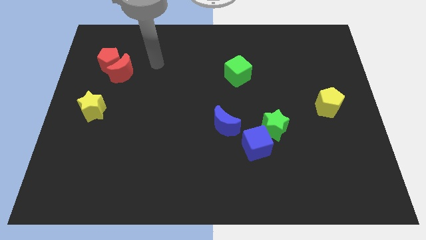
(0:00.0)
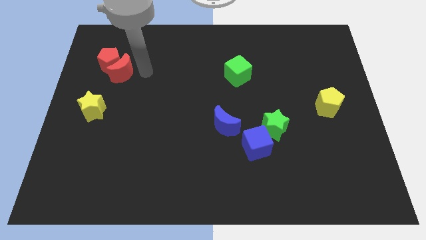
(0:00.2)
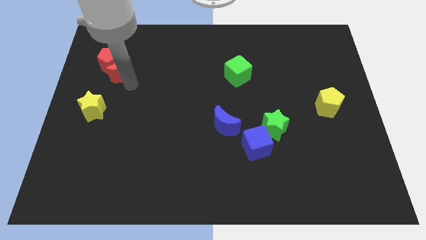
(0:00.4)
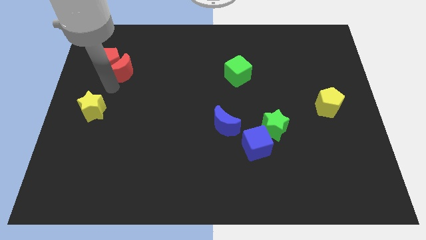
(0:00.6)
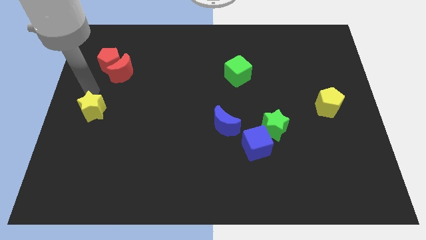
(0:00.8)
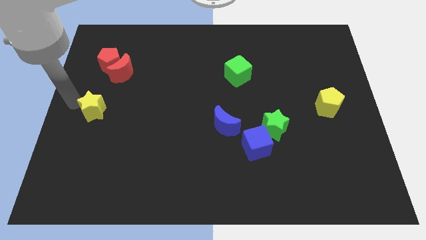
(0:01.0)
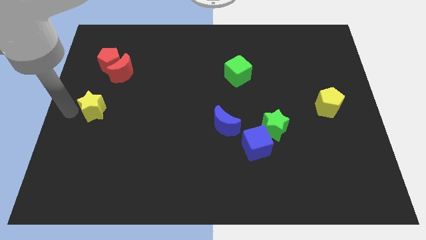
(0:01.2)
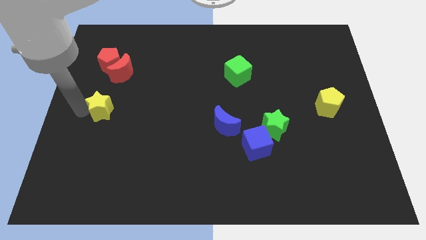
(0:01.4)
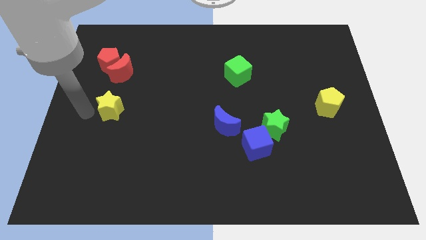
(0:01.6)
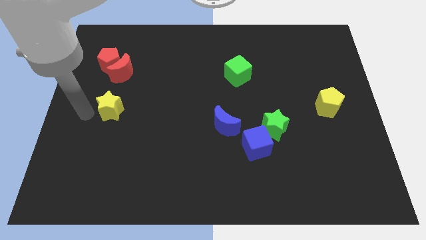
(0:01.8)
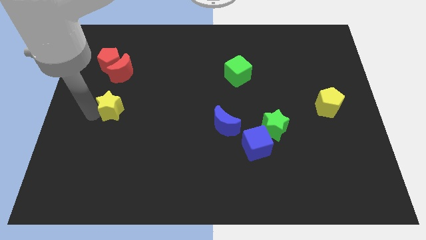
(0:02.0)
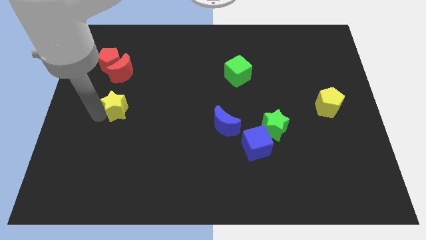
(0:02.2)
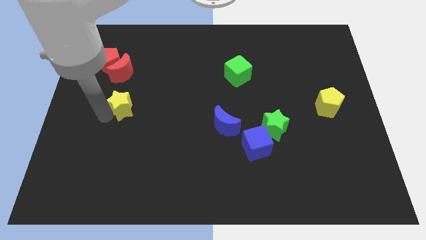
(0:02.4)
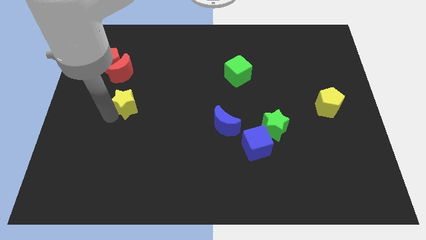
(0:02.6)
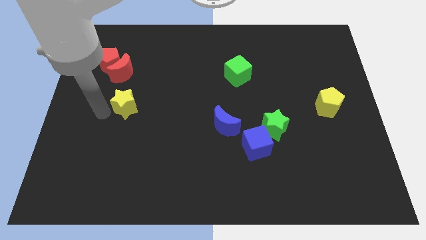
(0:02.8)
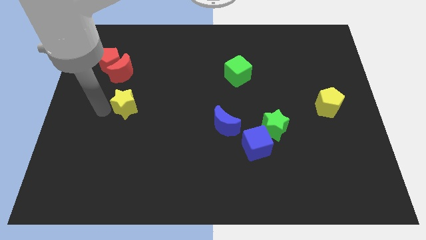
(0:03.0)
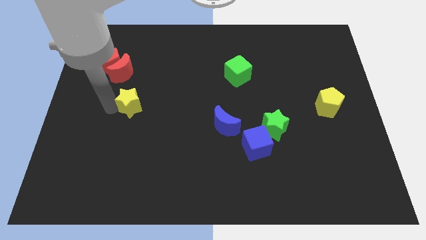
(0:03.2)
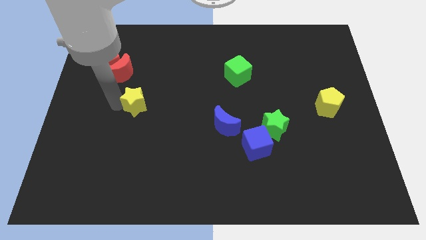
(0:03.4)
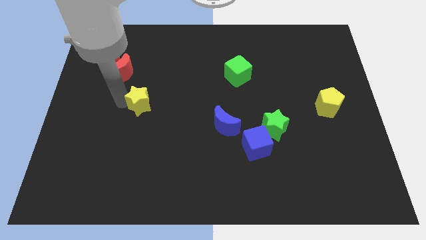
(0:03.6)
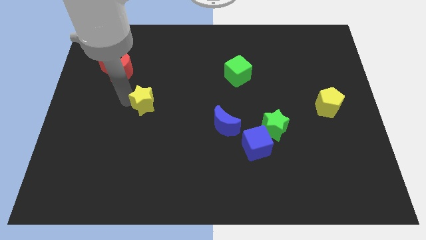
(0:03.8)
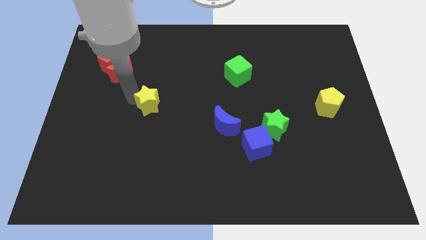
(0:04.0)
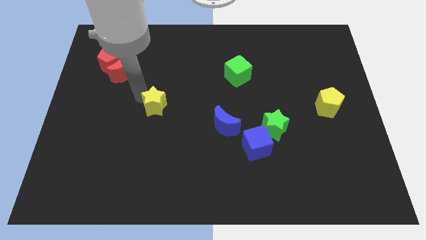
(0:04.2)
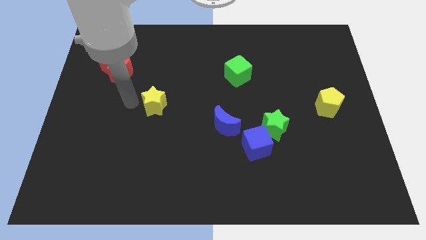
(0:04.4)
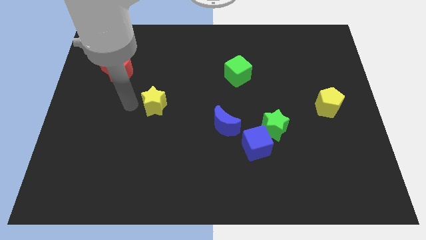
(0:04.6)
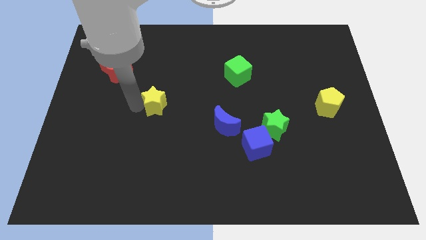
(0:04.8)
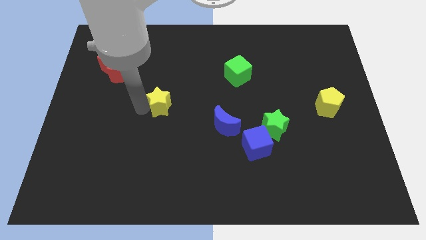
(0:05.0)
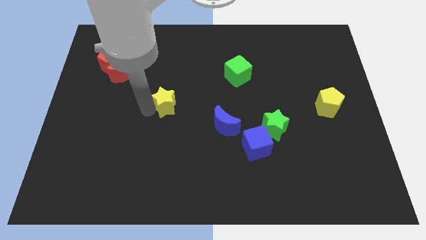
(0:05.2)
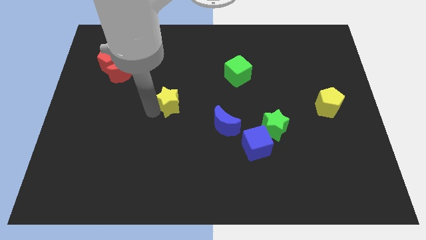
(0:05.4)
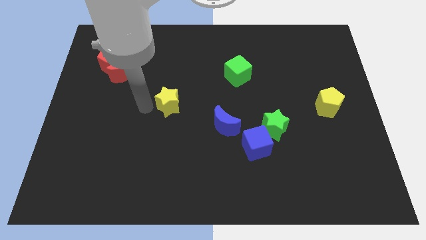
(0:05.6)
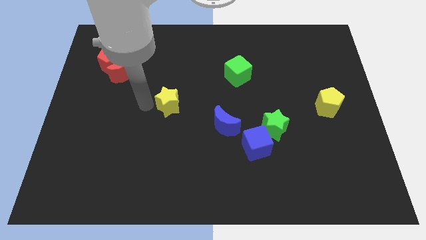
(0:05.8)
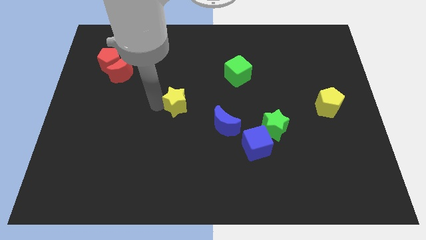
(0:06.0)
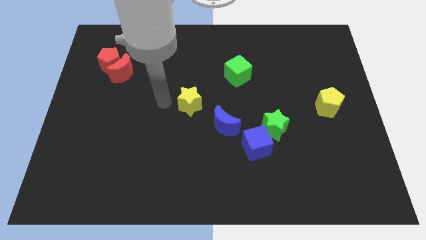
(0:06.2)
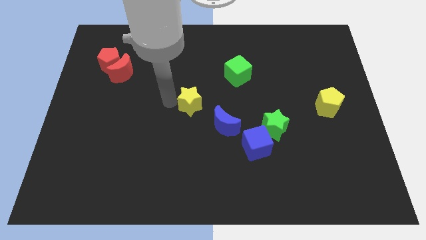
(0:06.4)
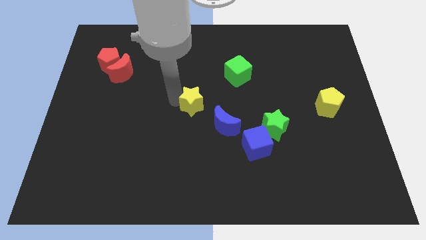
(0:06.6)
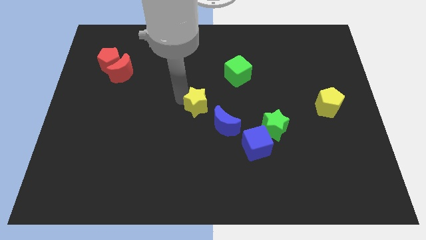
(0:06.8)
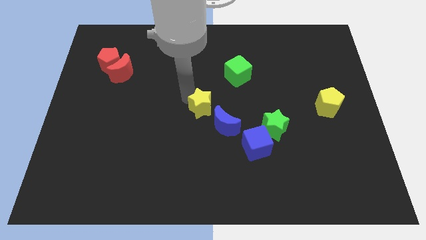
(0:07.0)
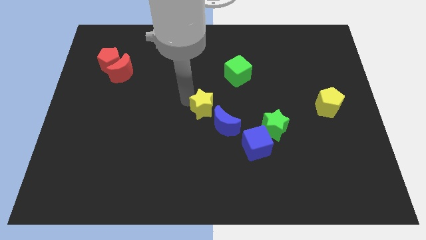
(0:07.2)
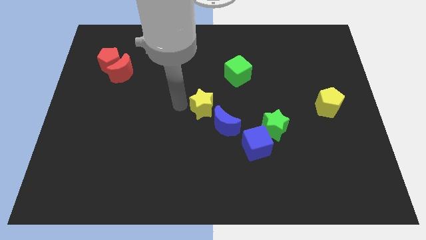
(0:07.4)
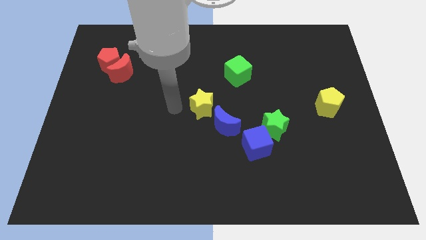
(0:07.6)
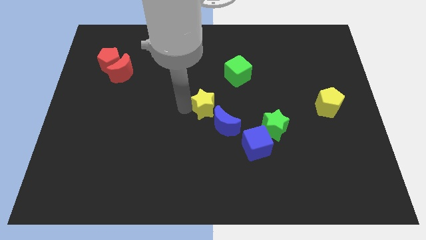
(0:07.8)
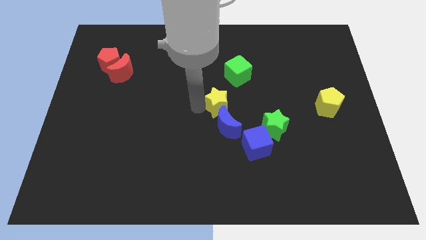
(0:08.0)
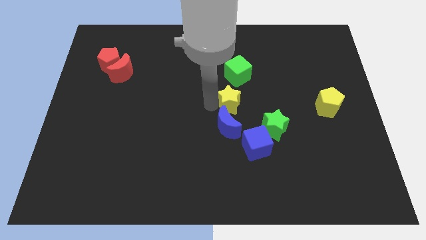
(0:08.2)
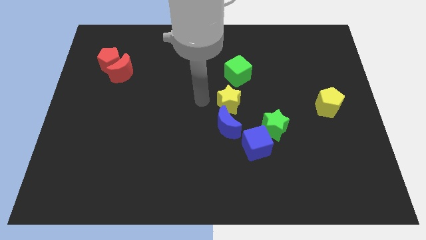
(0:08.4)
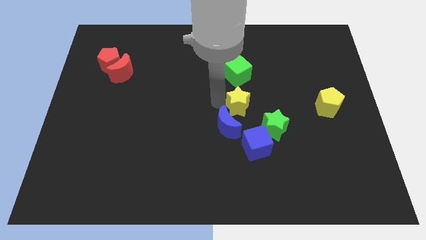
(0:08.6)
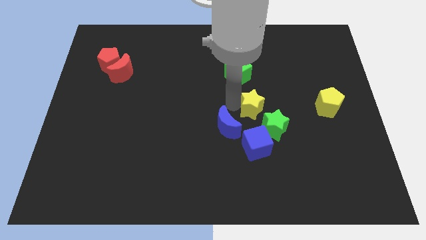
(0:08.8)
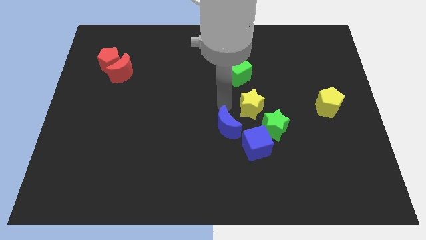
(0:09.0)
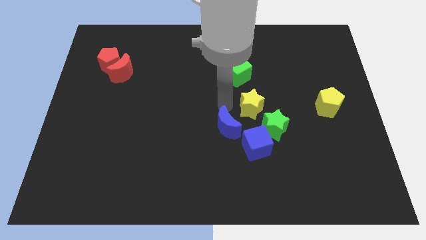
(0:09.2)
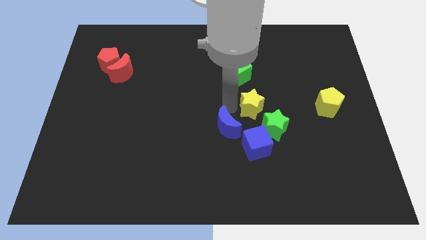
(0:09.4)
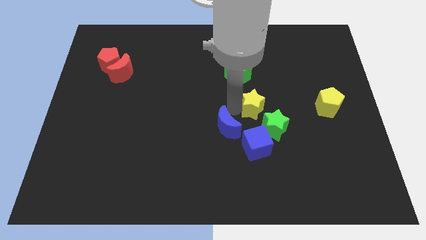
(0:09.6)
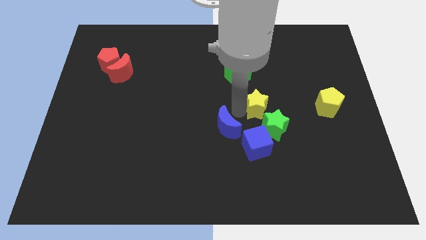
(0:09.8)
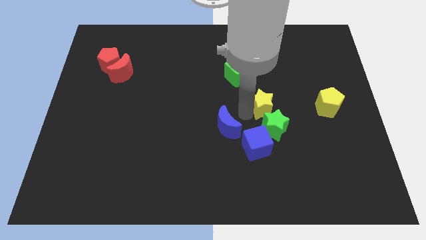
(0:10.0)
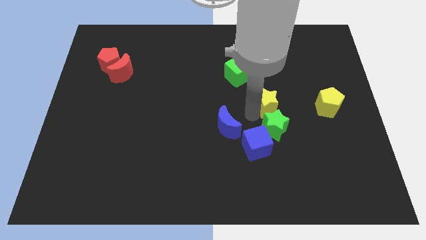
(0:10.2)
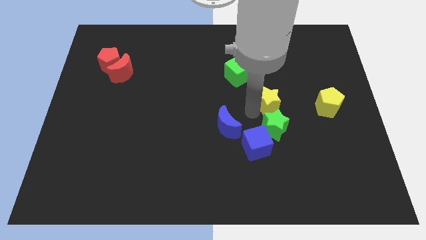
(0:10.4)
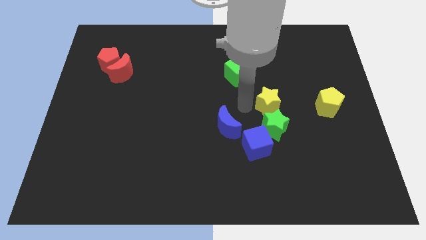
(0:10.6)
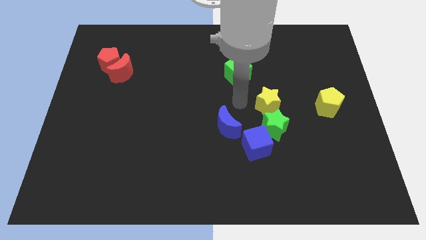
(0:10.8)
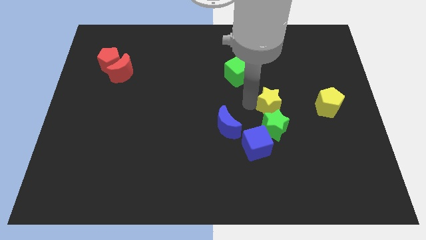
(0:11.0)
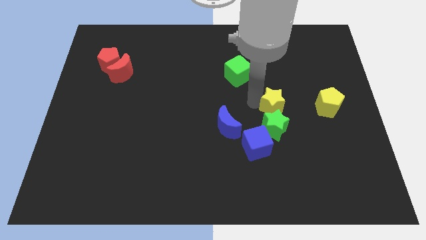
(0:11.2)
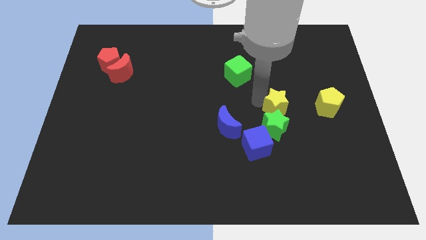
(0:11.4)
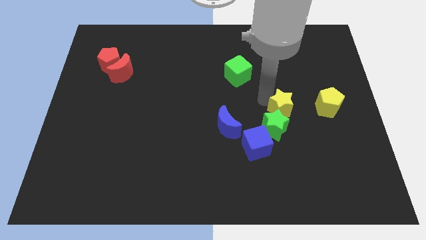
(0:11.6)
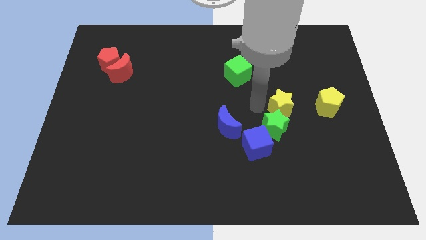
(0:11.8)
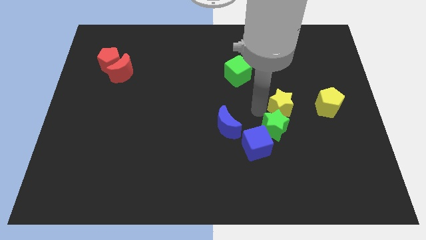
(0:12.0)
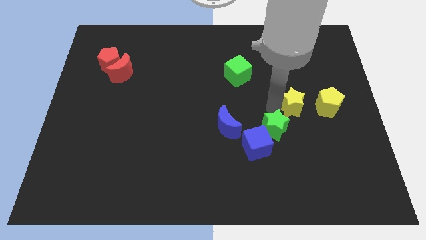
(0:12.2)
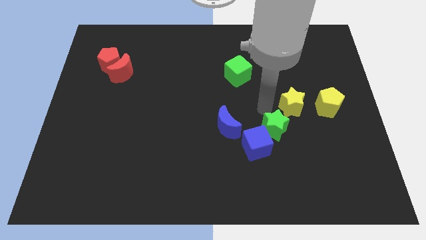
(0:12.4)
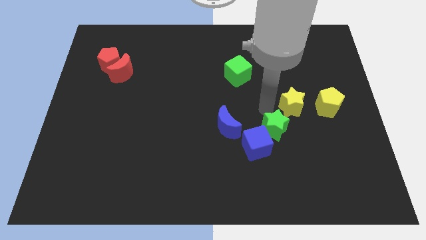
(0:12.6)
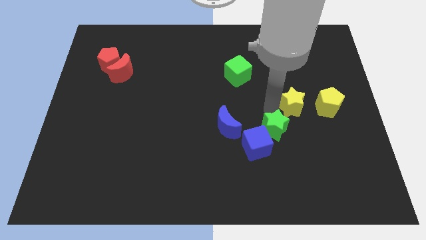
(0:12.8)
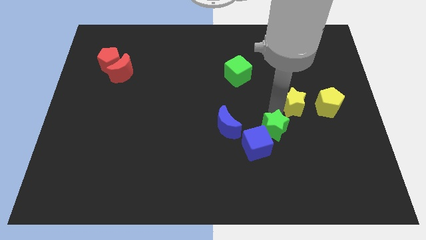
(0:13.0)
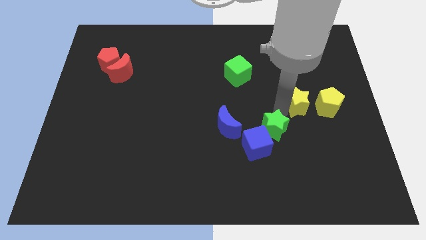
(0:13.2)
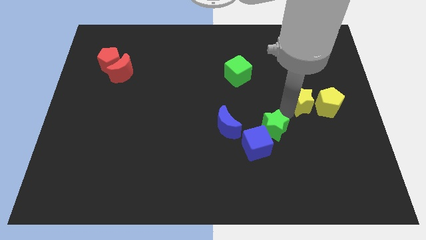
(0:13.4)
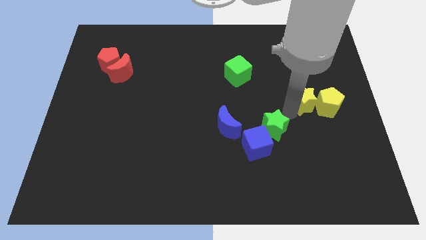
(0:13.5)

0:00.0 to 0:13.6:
push the yellow star towards the yellow pentagon
